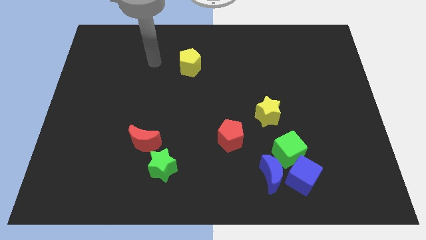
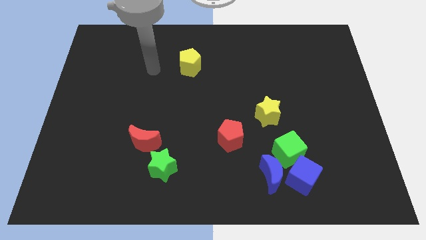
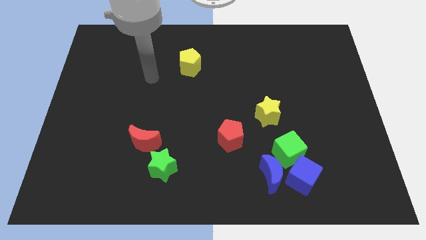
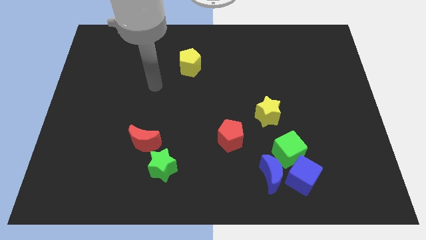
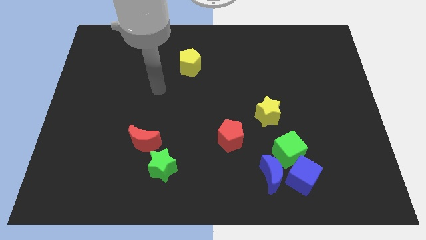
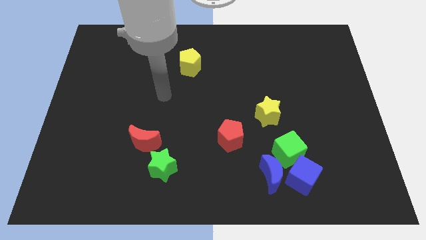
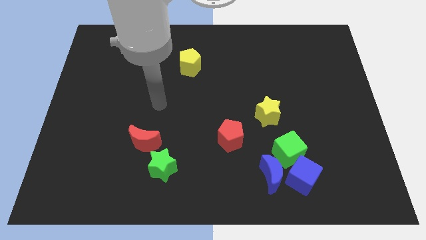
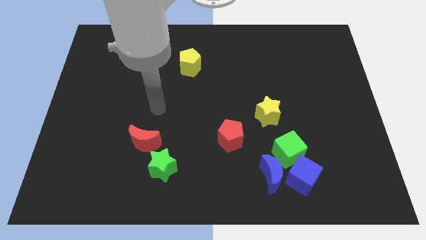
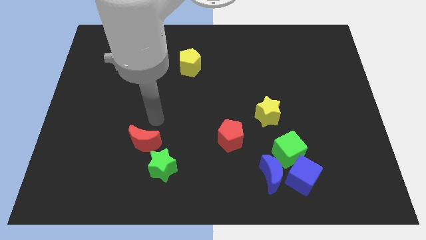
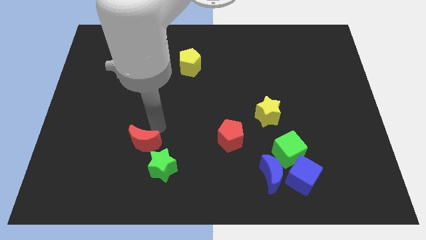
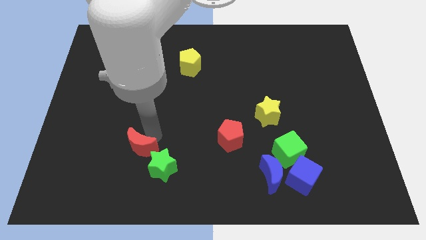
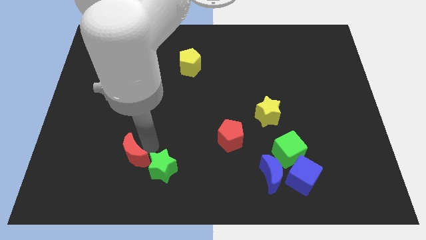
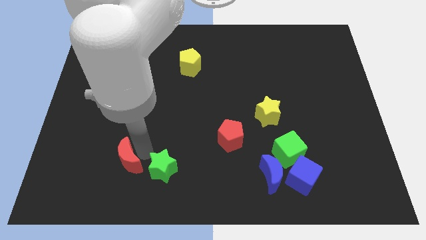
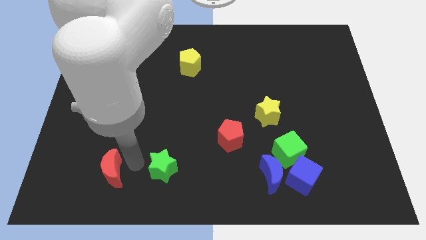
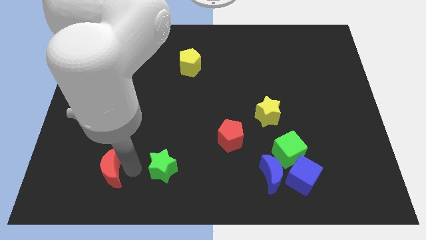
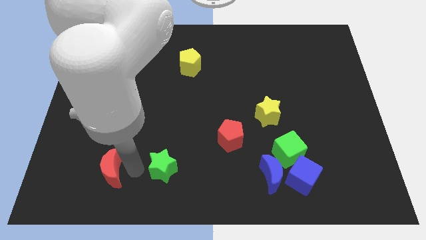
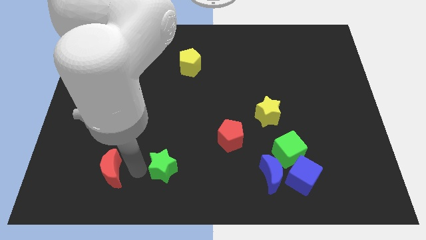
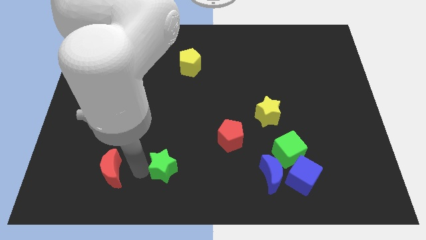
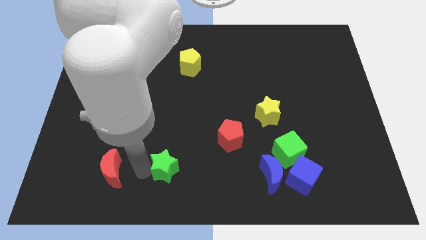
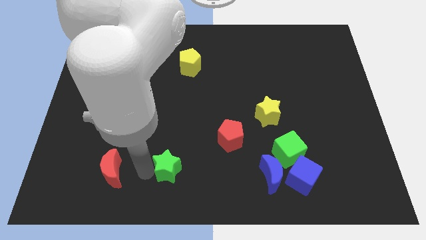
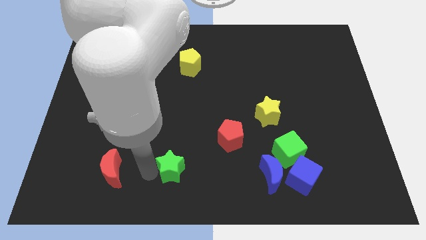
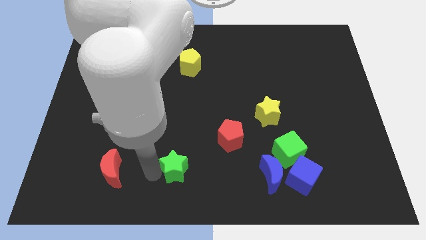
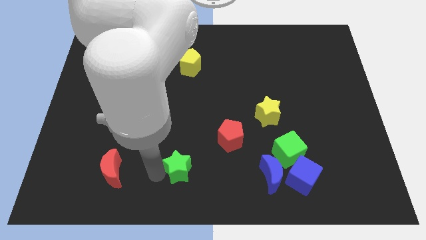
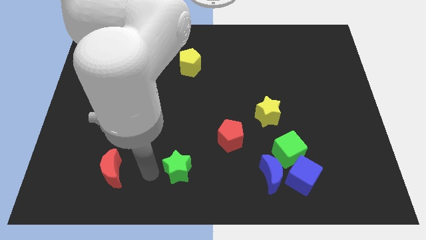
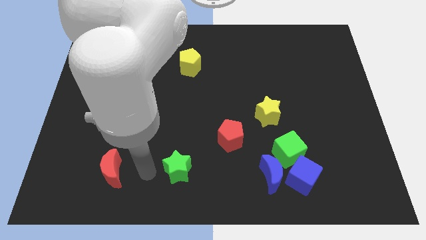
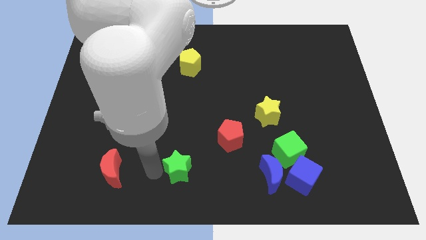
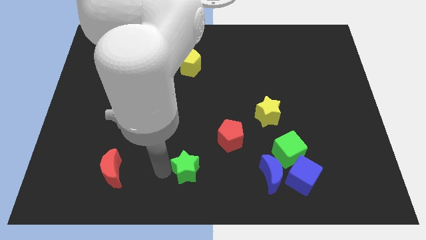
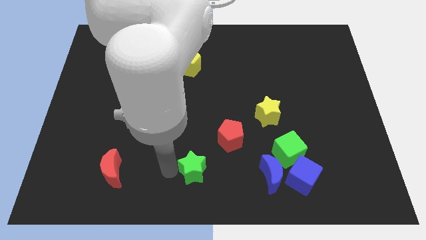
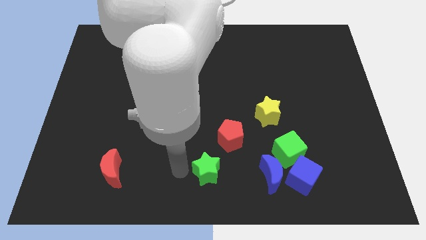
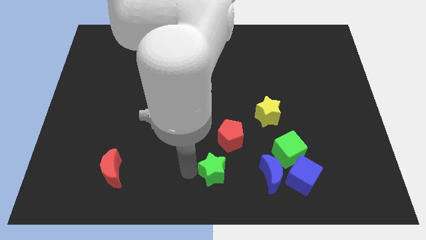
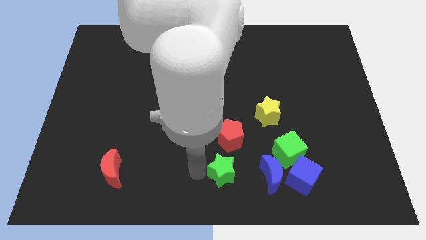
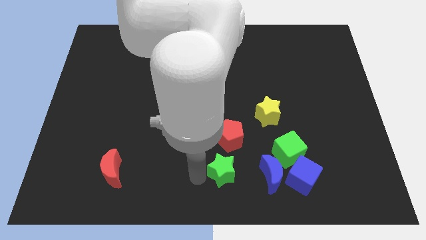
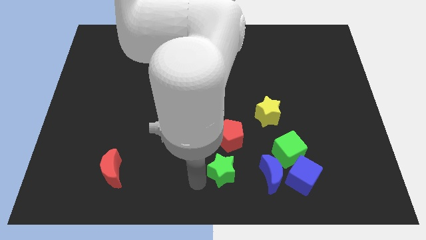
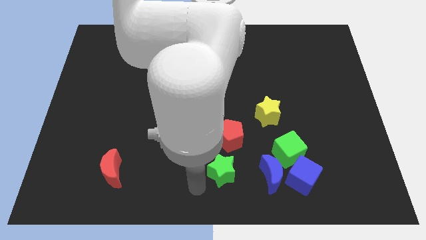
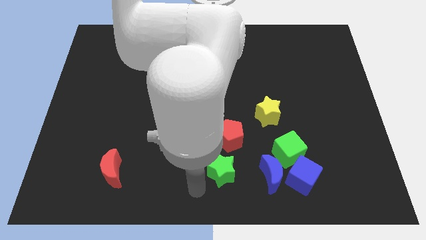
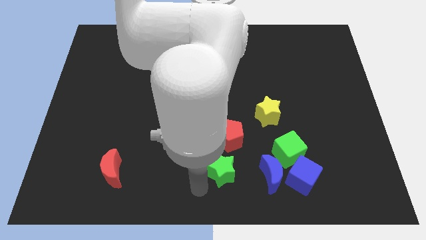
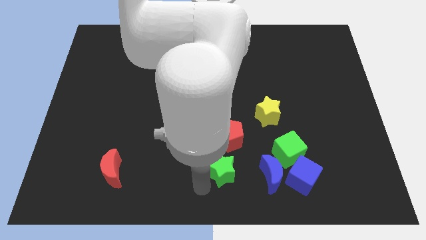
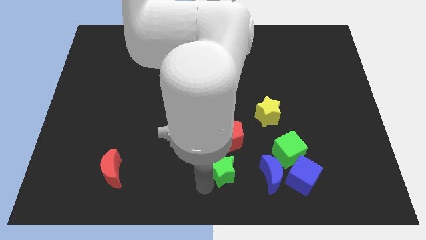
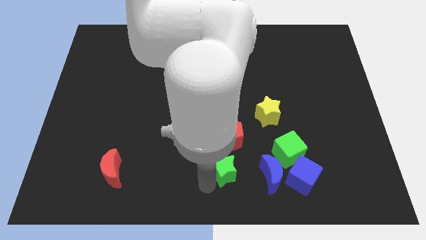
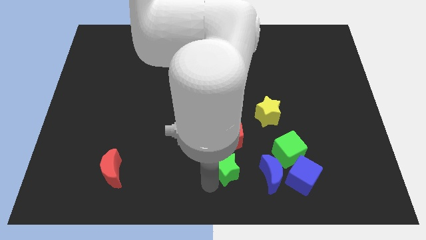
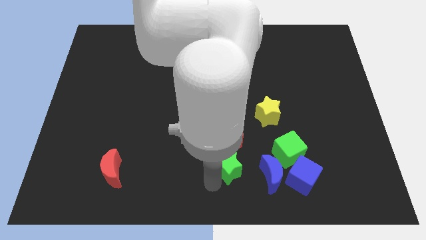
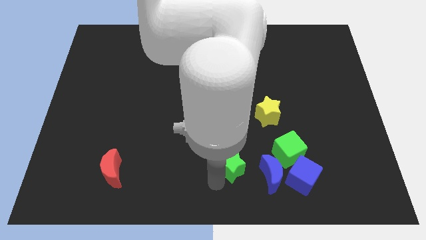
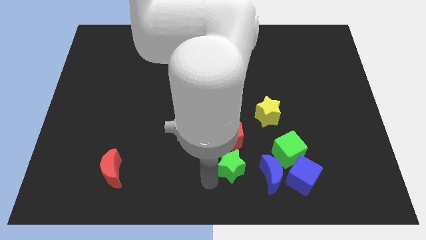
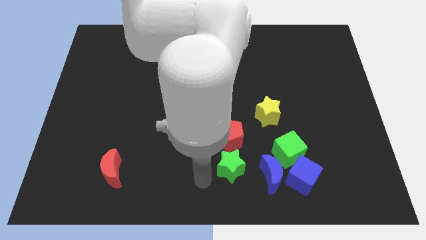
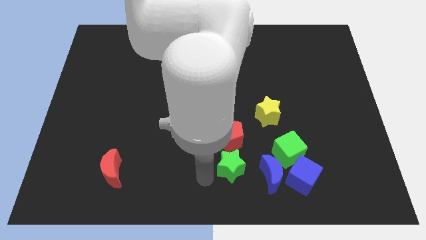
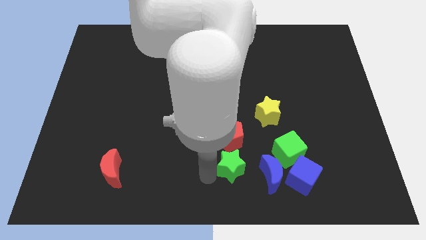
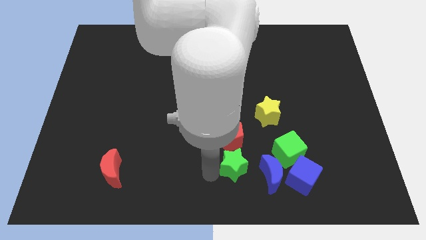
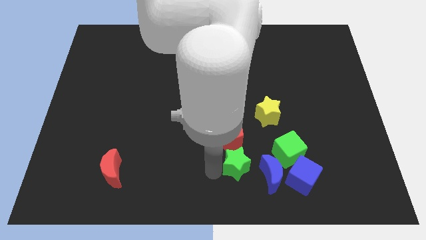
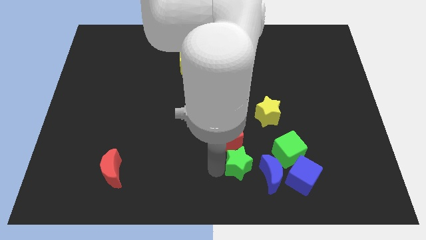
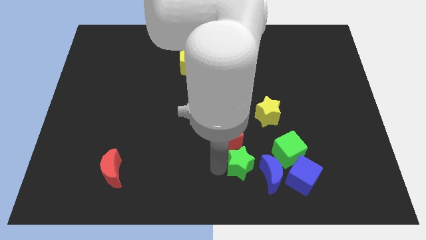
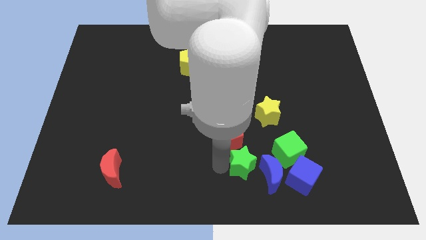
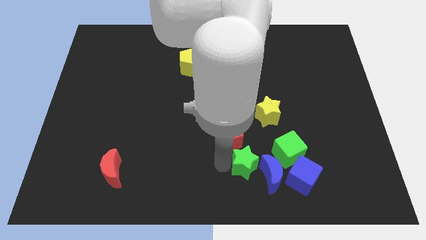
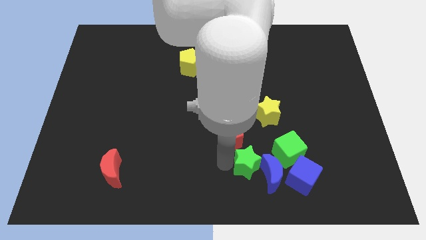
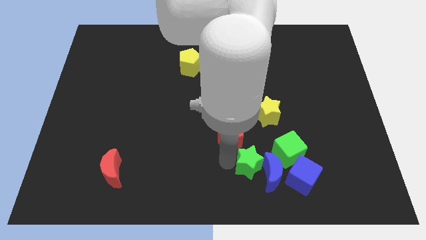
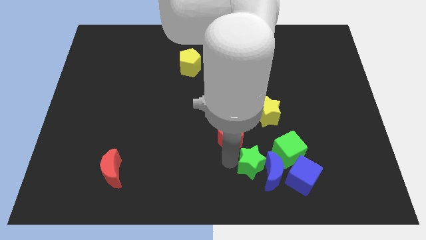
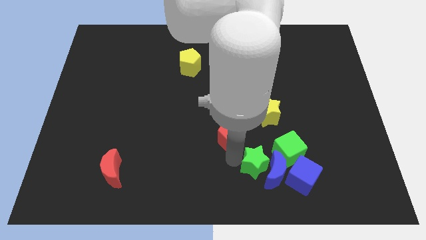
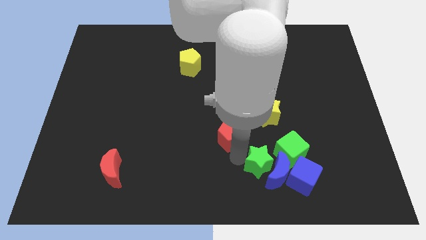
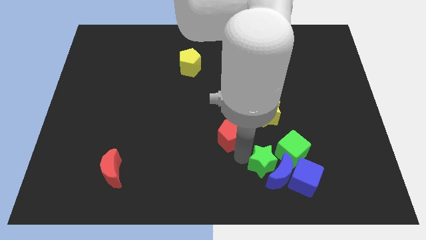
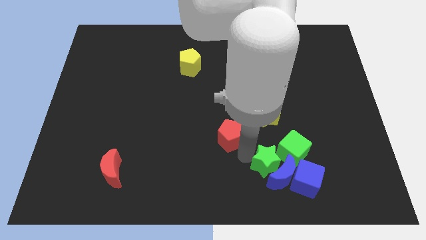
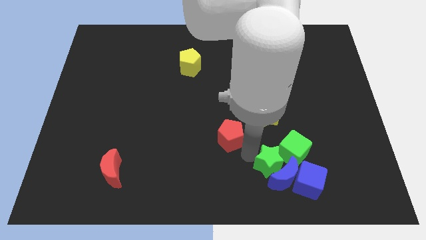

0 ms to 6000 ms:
move the green star towards the green cube

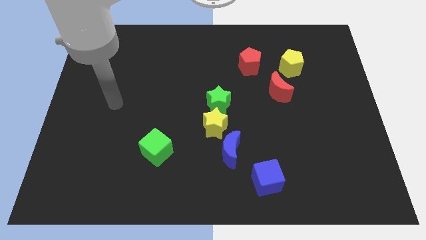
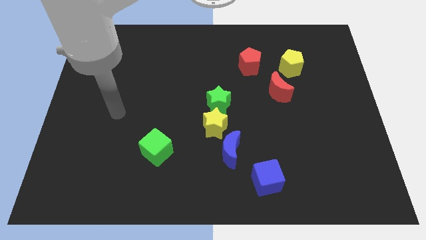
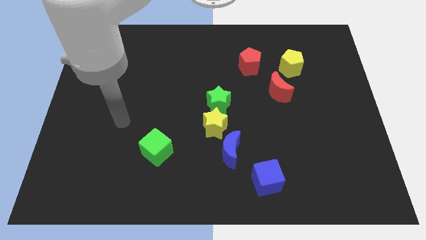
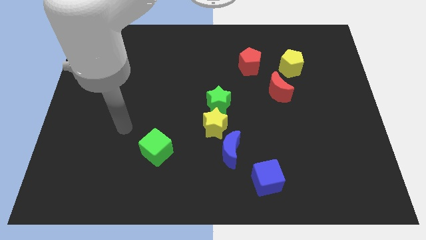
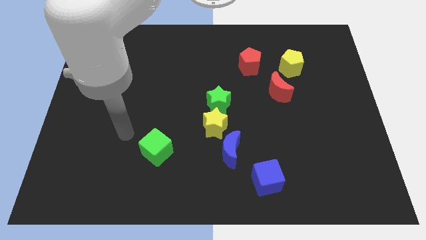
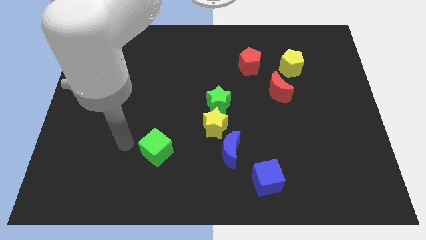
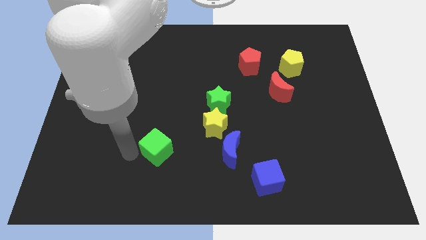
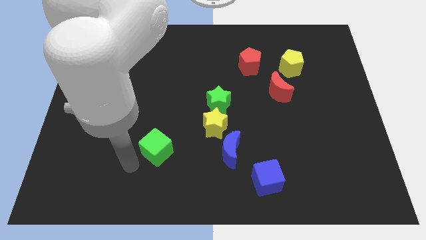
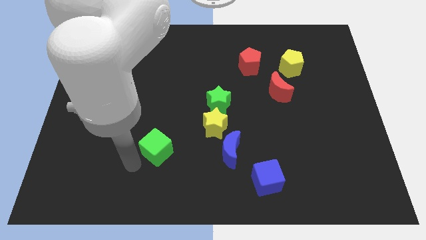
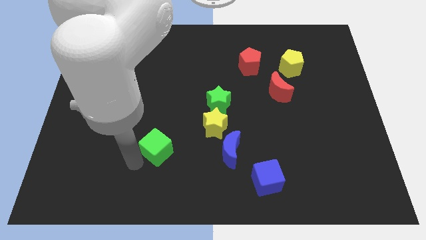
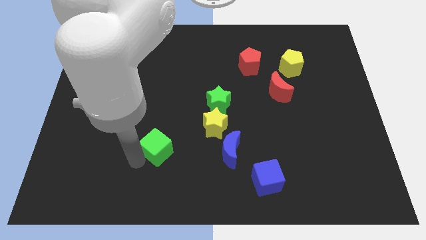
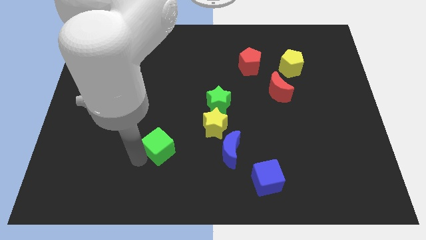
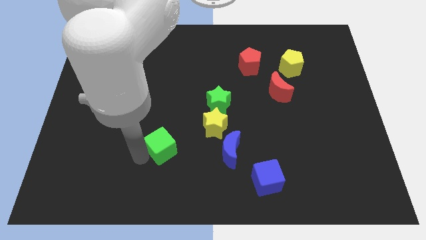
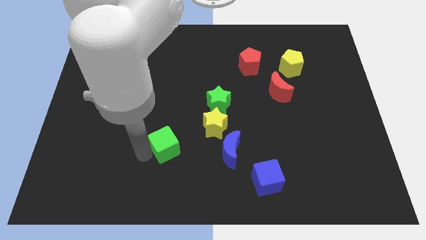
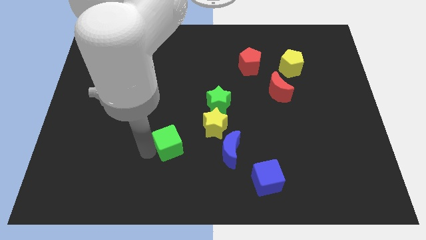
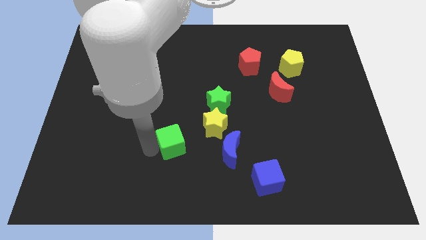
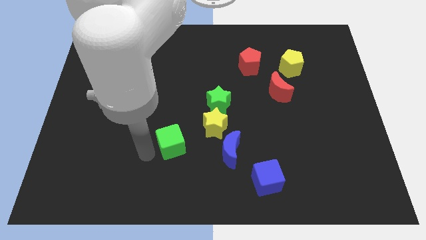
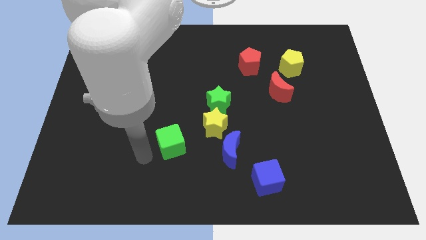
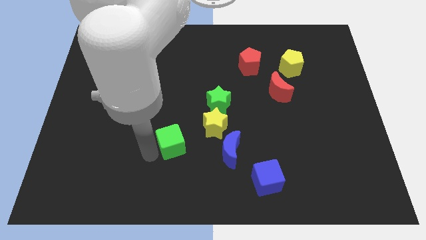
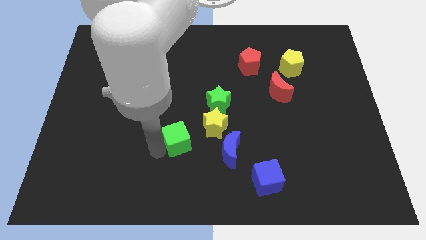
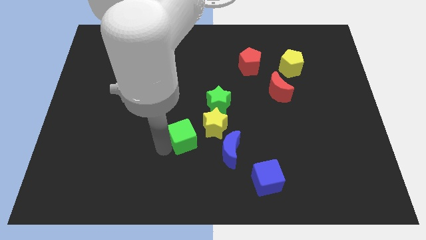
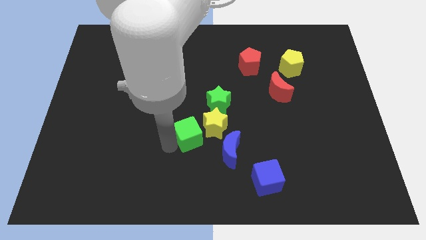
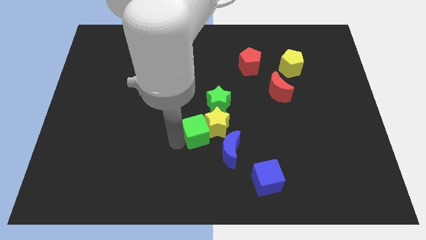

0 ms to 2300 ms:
move the green cube to the yellow star
